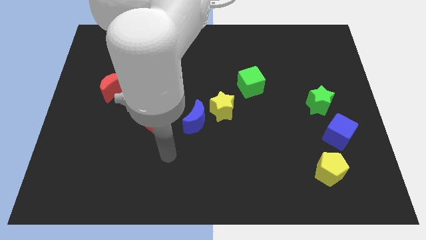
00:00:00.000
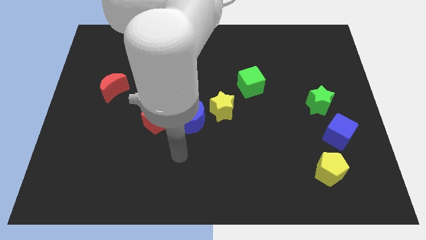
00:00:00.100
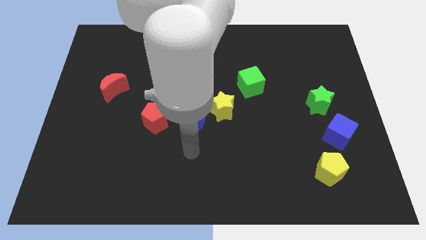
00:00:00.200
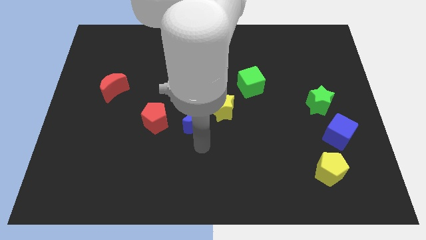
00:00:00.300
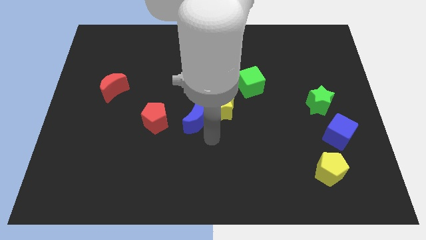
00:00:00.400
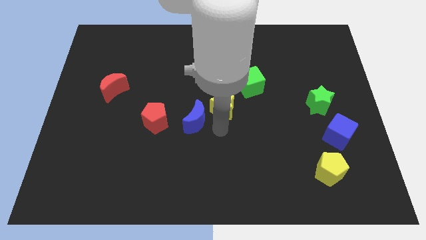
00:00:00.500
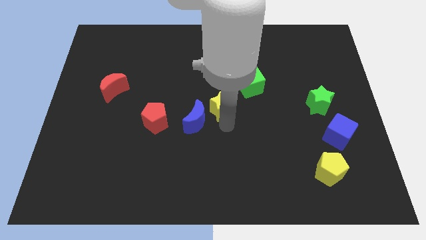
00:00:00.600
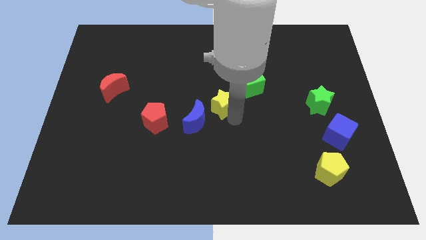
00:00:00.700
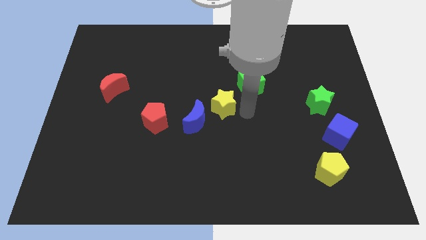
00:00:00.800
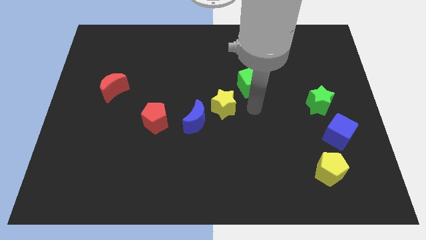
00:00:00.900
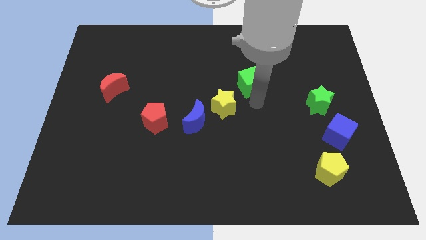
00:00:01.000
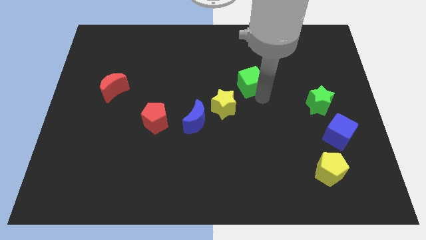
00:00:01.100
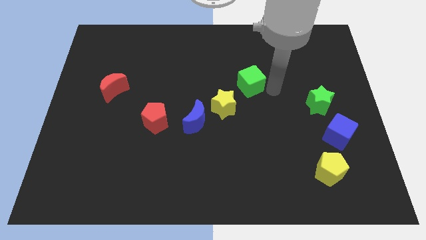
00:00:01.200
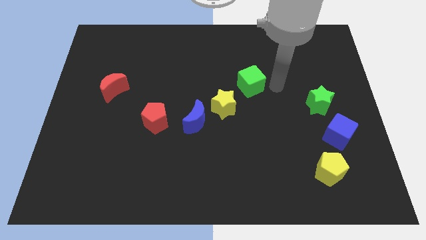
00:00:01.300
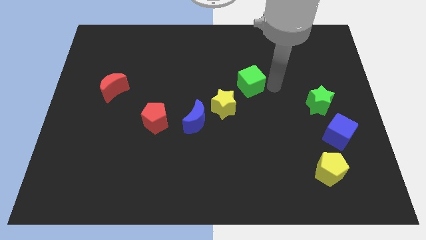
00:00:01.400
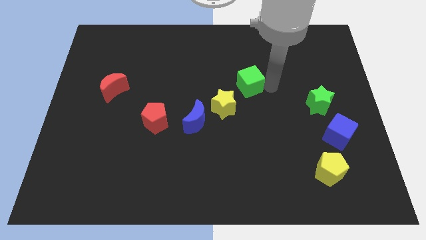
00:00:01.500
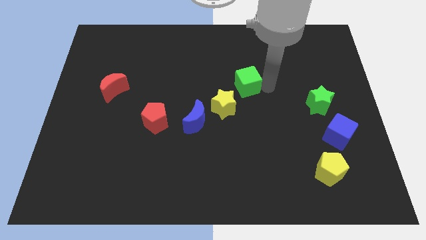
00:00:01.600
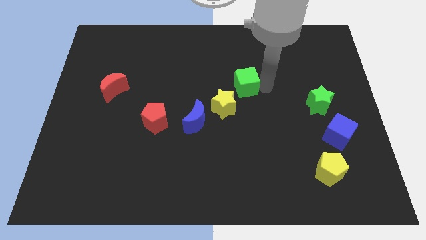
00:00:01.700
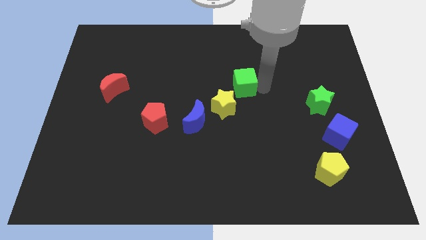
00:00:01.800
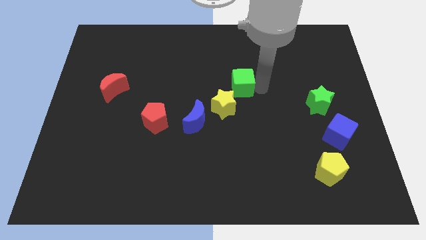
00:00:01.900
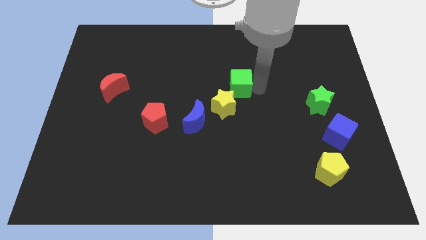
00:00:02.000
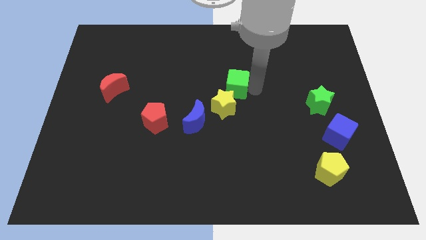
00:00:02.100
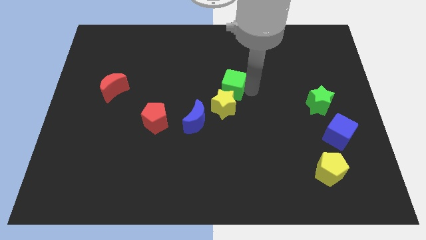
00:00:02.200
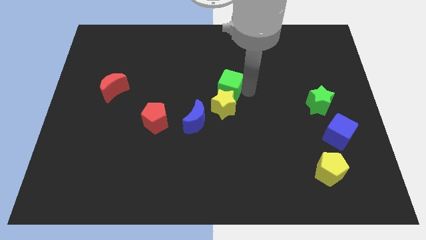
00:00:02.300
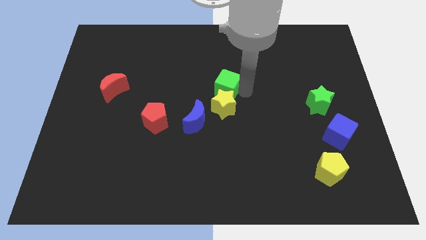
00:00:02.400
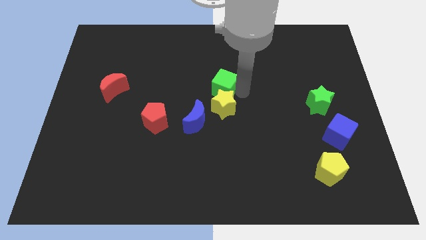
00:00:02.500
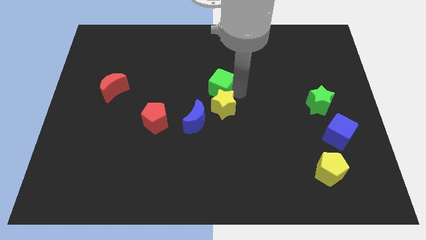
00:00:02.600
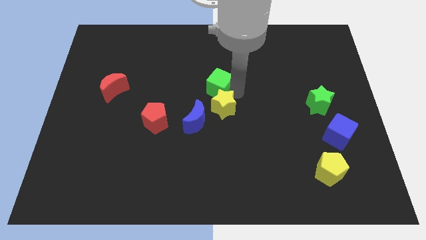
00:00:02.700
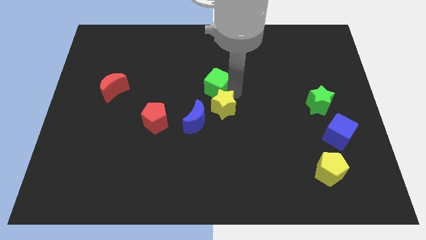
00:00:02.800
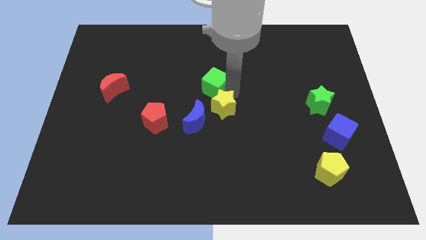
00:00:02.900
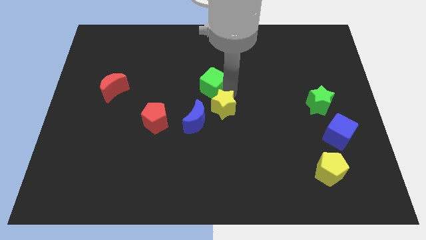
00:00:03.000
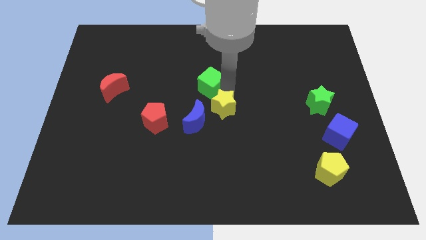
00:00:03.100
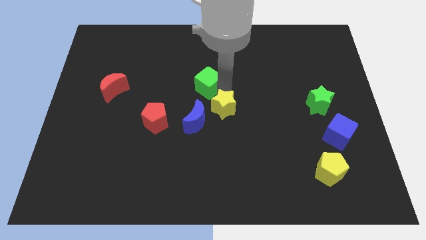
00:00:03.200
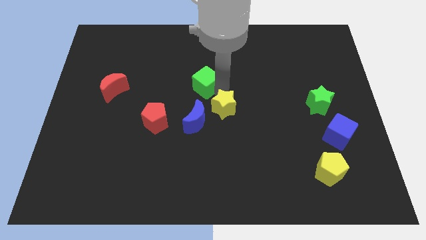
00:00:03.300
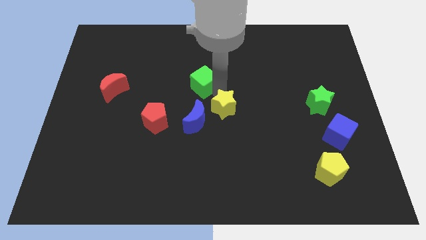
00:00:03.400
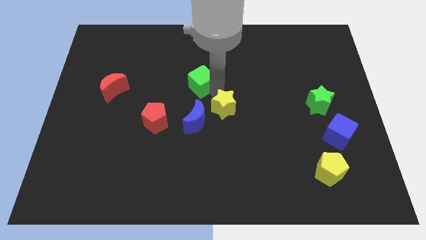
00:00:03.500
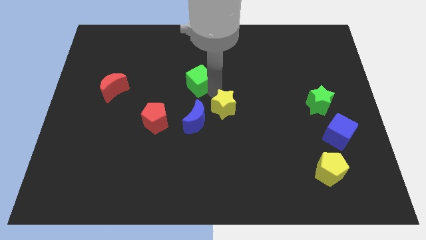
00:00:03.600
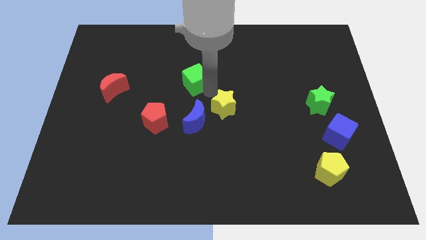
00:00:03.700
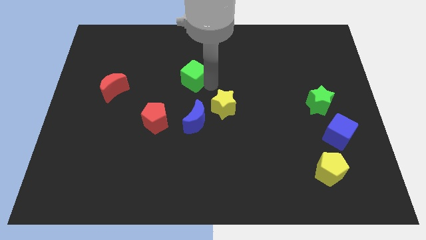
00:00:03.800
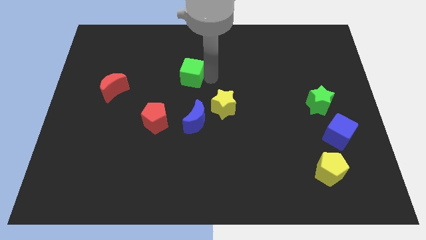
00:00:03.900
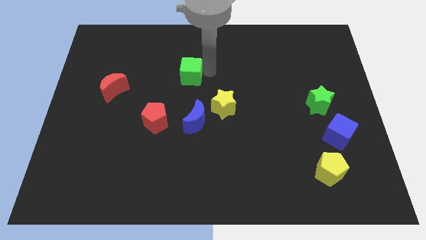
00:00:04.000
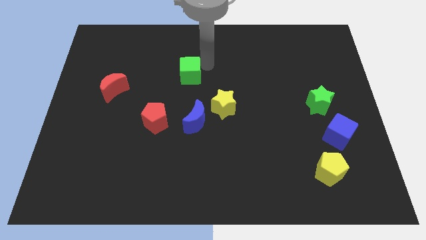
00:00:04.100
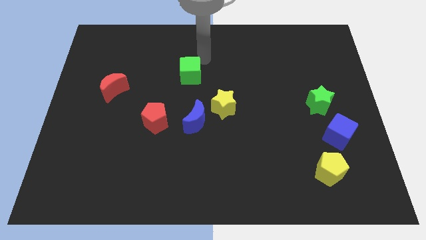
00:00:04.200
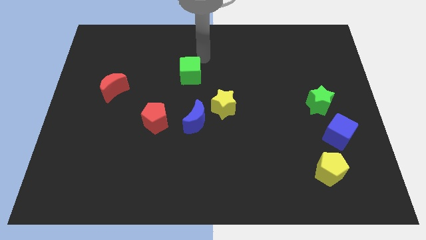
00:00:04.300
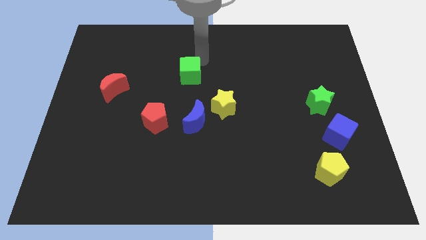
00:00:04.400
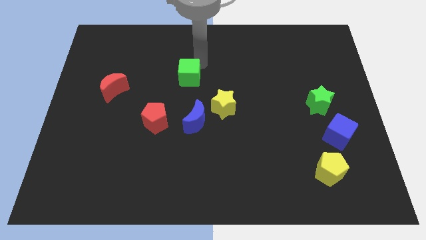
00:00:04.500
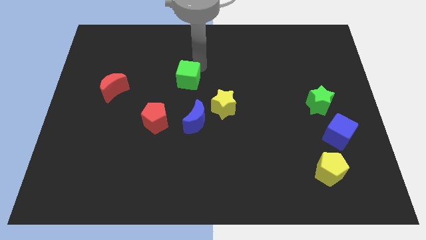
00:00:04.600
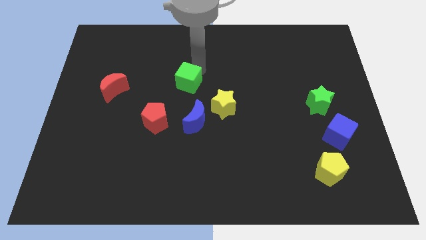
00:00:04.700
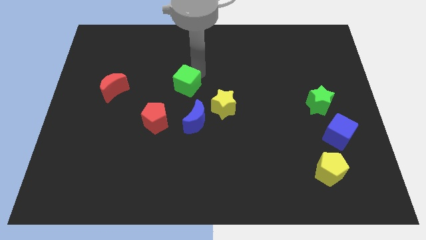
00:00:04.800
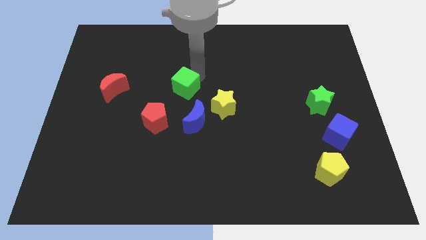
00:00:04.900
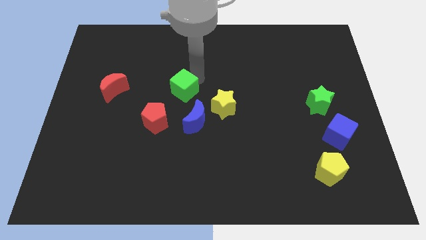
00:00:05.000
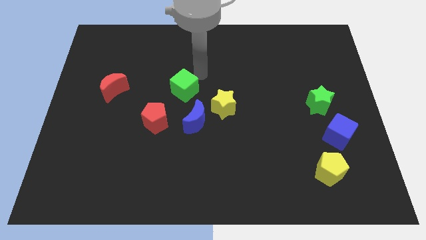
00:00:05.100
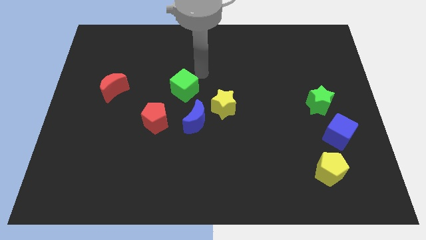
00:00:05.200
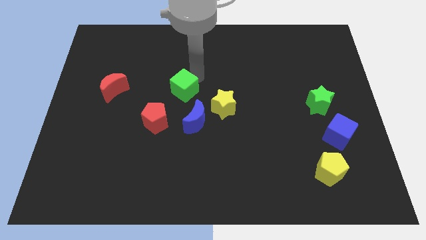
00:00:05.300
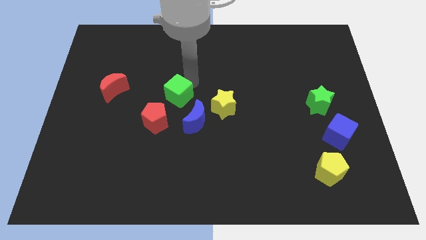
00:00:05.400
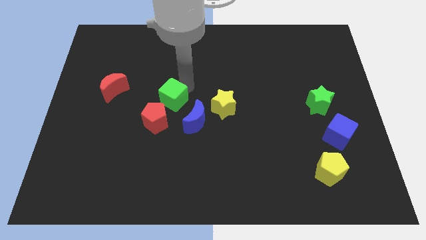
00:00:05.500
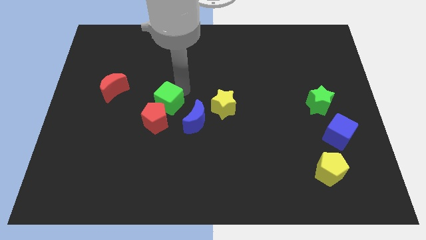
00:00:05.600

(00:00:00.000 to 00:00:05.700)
push the green cube to the red pentagon

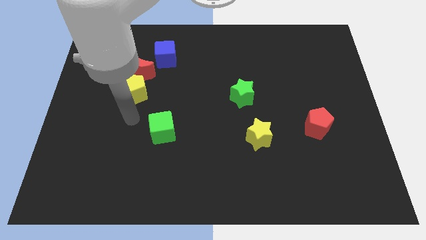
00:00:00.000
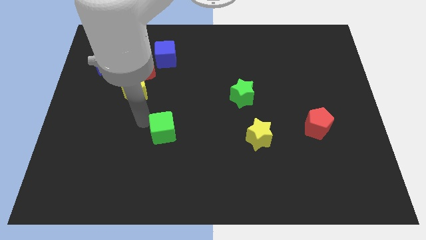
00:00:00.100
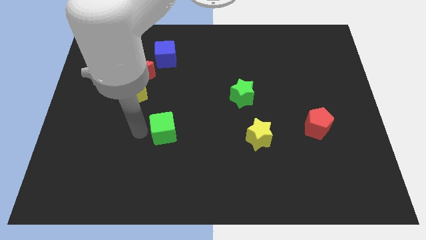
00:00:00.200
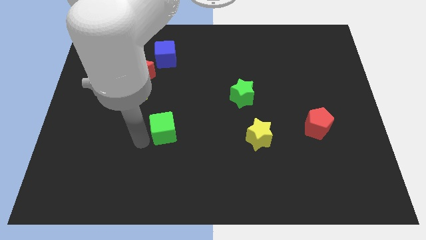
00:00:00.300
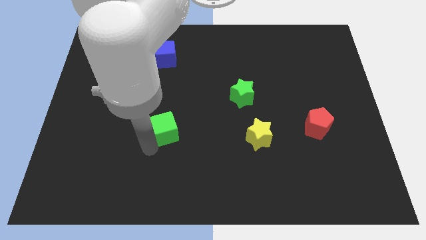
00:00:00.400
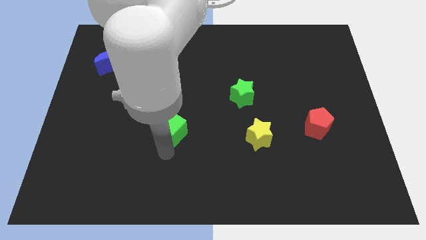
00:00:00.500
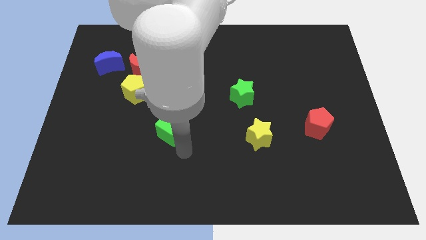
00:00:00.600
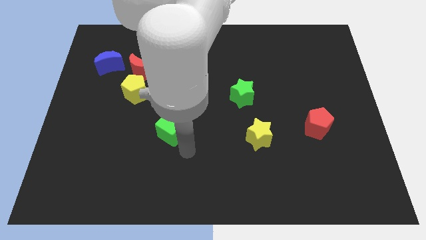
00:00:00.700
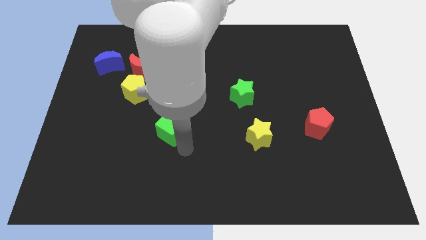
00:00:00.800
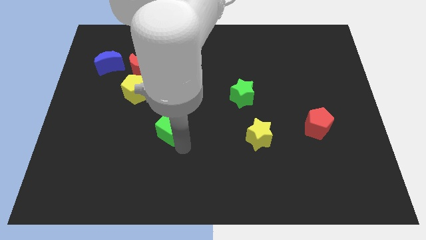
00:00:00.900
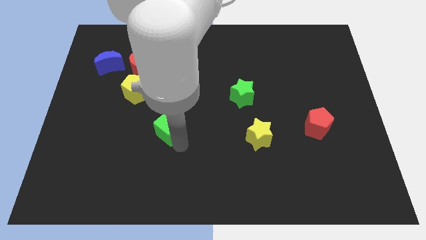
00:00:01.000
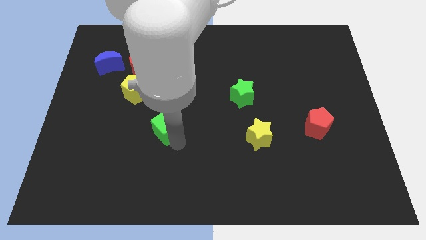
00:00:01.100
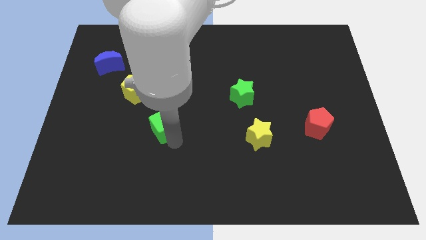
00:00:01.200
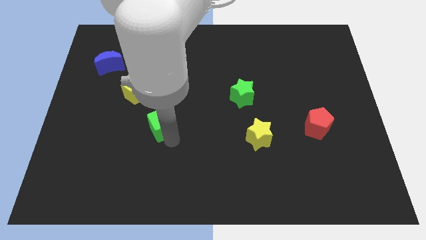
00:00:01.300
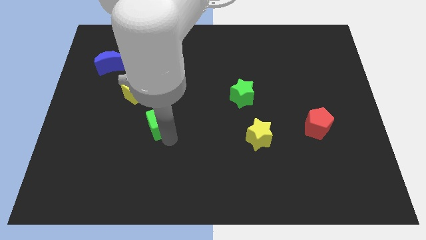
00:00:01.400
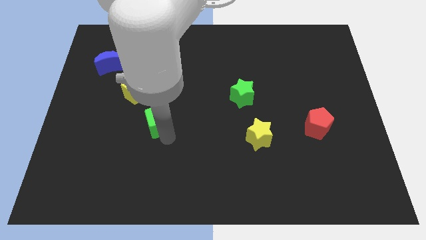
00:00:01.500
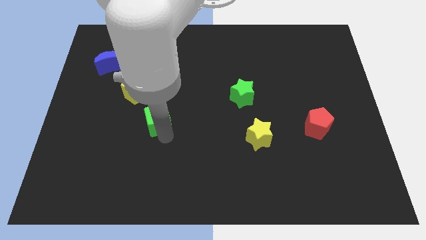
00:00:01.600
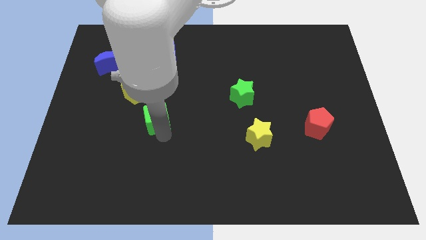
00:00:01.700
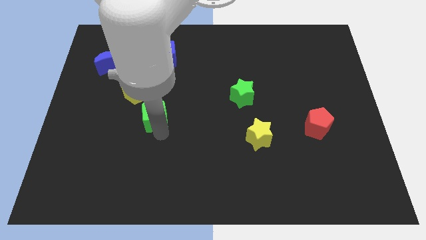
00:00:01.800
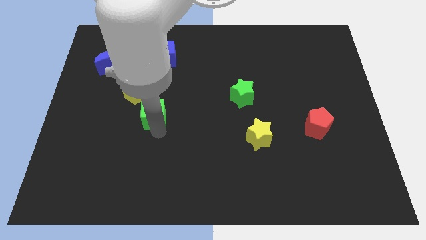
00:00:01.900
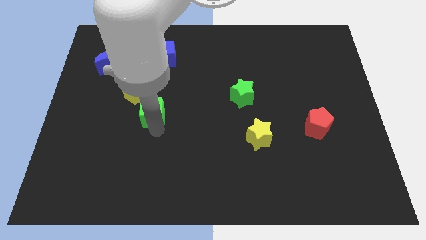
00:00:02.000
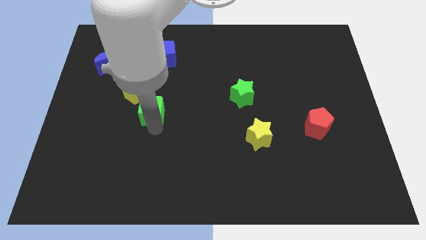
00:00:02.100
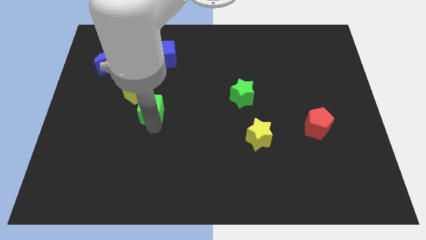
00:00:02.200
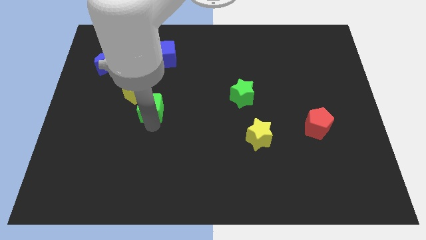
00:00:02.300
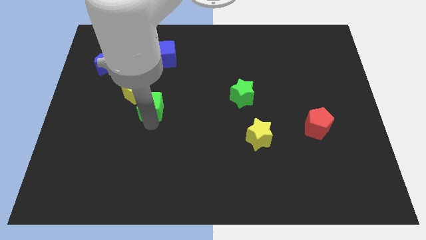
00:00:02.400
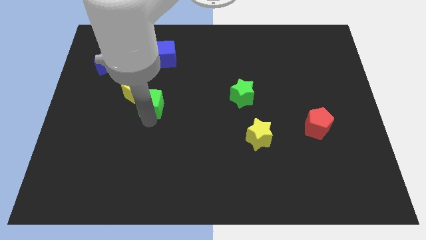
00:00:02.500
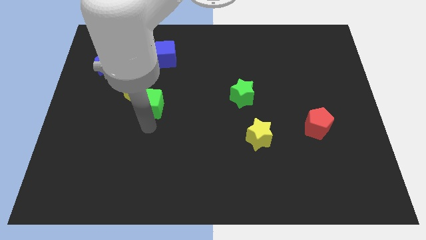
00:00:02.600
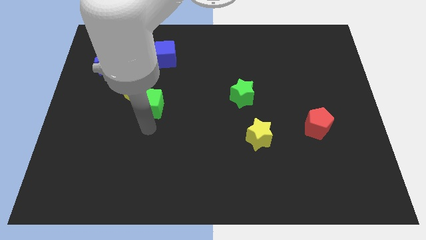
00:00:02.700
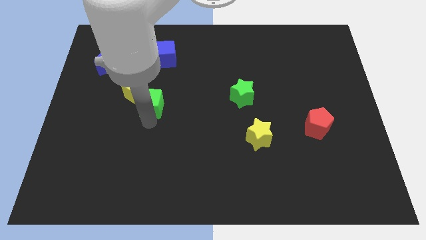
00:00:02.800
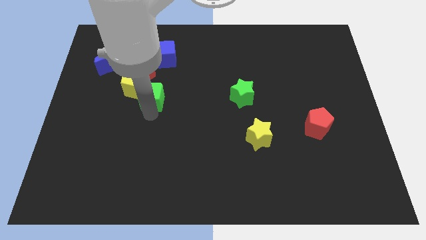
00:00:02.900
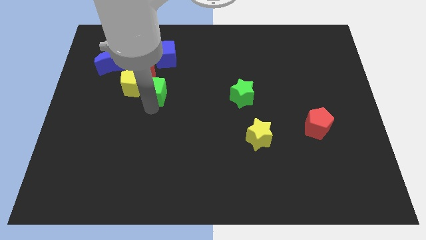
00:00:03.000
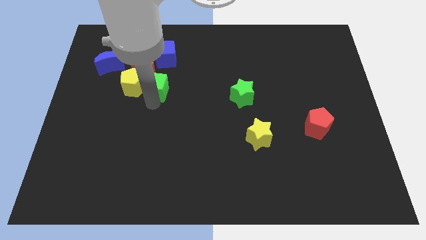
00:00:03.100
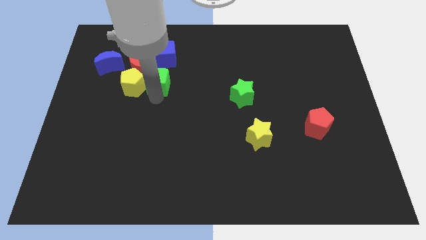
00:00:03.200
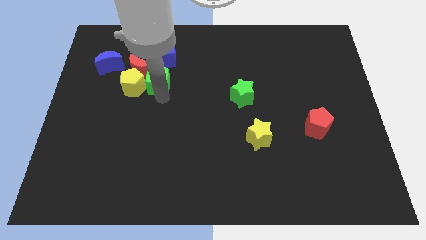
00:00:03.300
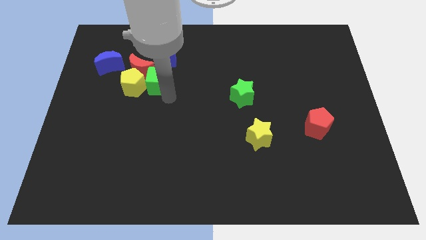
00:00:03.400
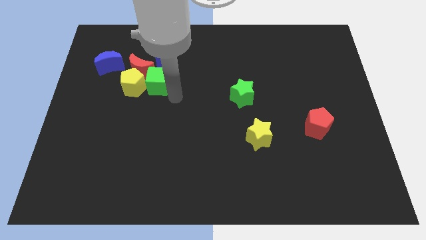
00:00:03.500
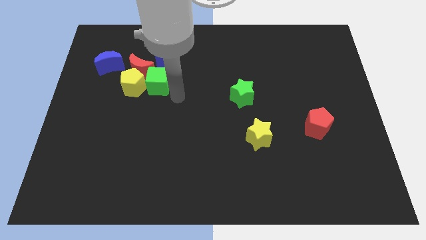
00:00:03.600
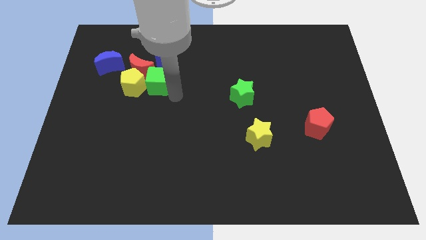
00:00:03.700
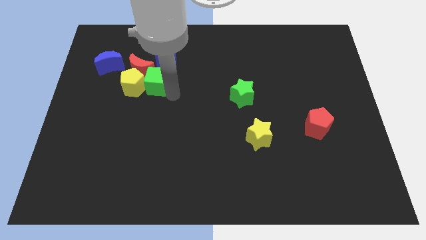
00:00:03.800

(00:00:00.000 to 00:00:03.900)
slide the green cube to the red moon
